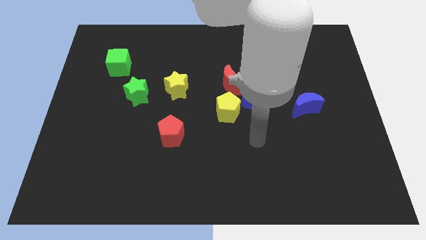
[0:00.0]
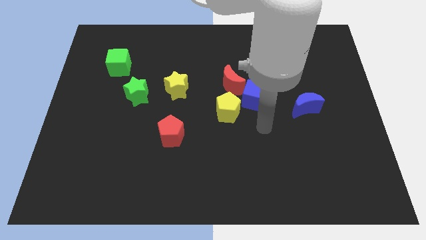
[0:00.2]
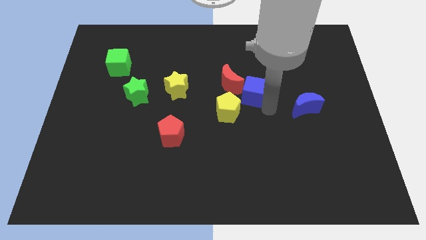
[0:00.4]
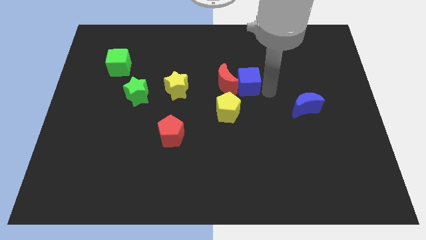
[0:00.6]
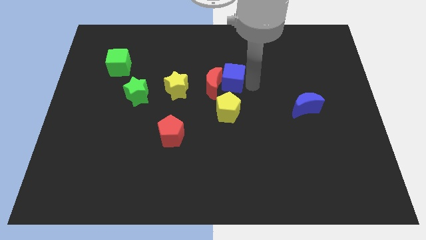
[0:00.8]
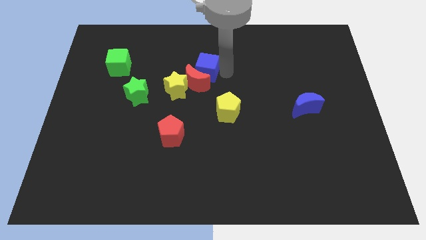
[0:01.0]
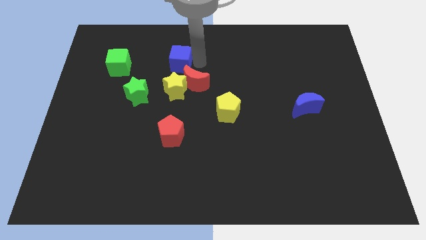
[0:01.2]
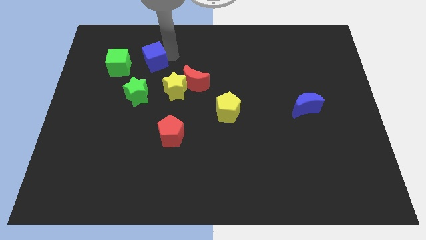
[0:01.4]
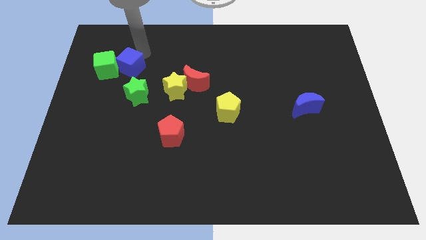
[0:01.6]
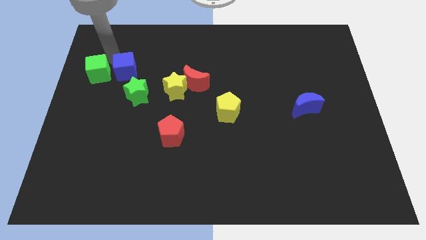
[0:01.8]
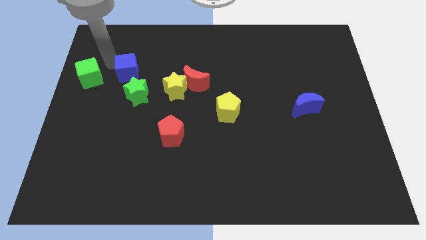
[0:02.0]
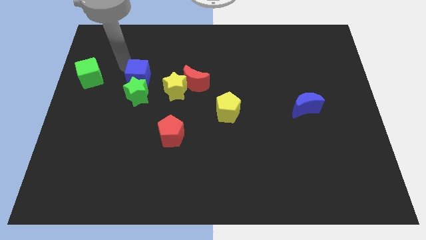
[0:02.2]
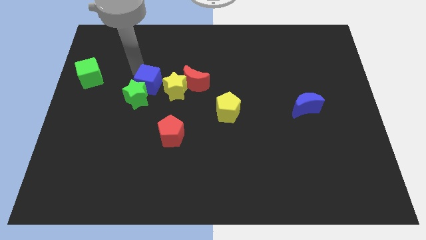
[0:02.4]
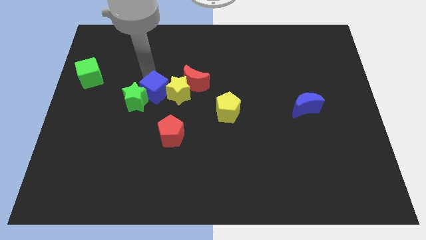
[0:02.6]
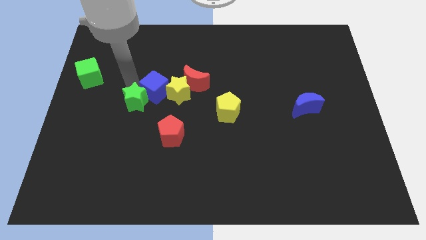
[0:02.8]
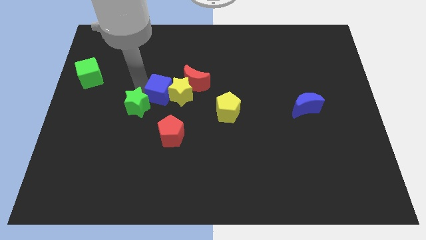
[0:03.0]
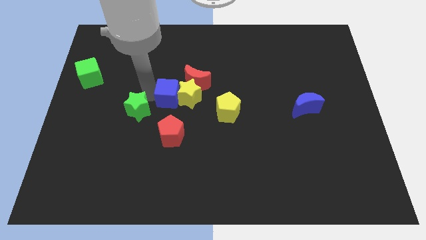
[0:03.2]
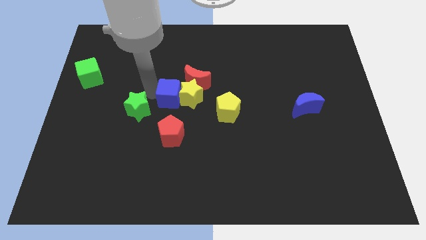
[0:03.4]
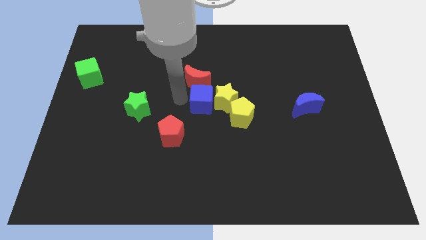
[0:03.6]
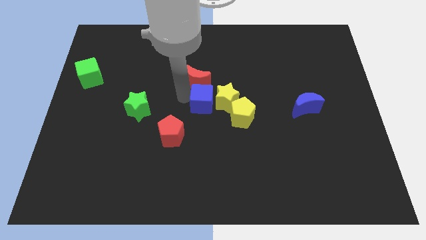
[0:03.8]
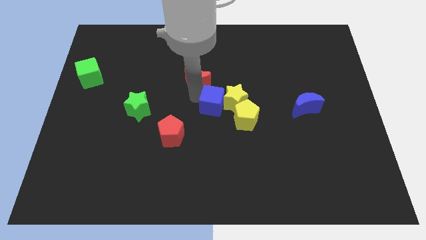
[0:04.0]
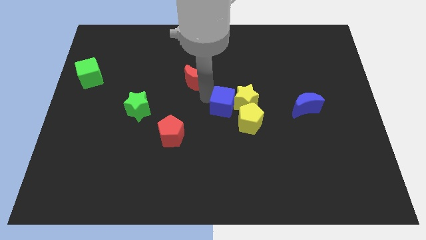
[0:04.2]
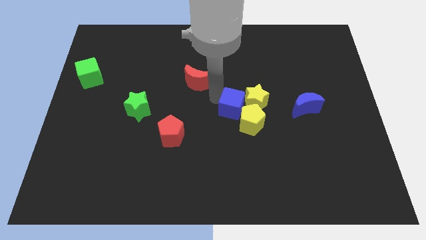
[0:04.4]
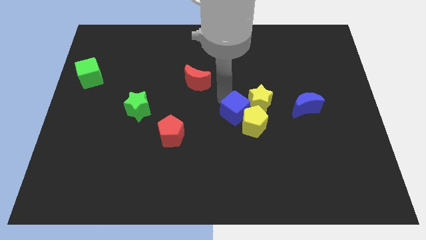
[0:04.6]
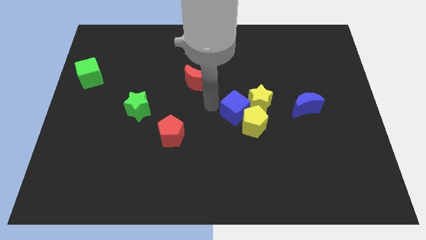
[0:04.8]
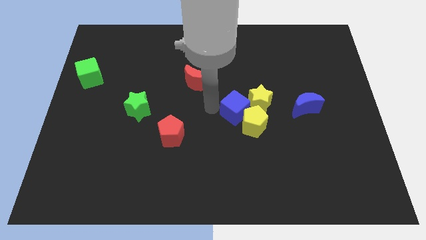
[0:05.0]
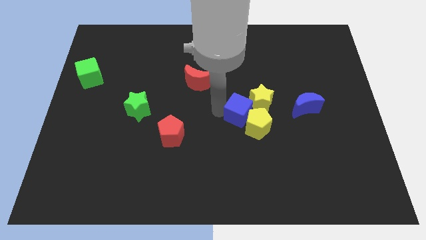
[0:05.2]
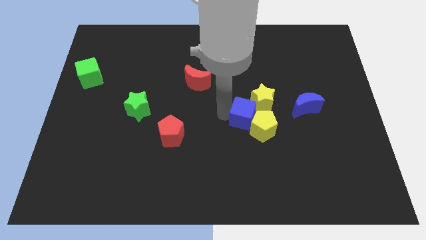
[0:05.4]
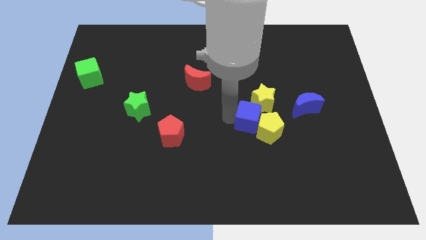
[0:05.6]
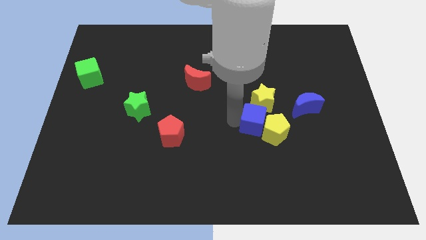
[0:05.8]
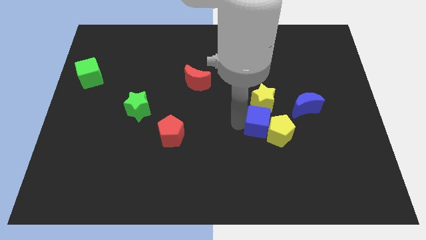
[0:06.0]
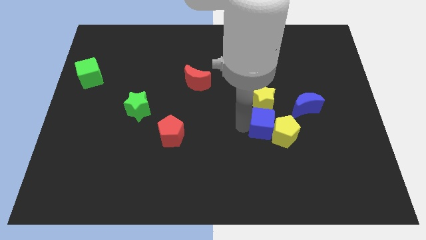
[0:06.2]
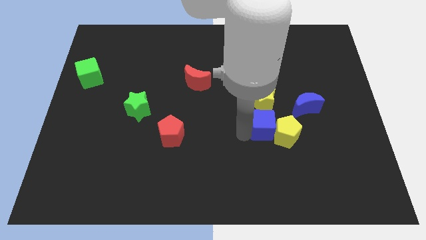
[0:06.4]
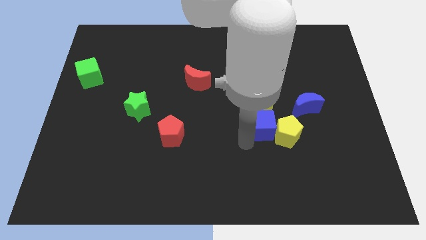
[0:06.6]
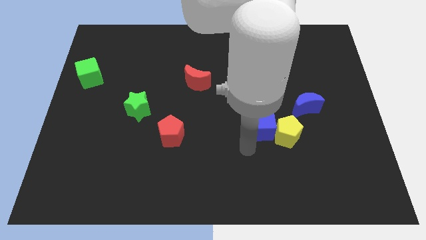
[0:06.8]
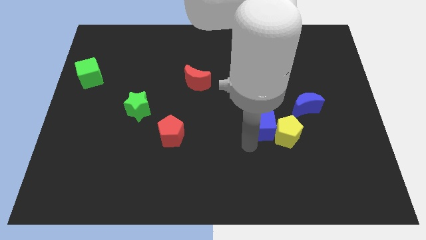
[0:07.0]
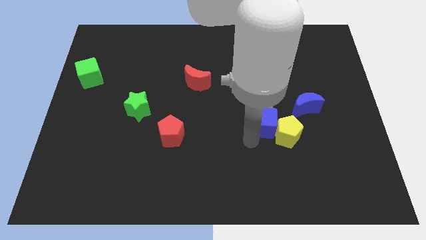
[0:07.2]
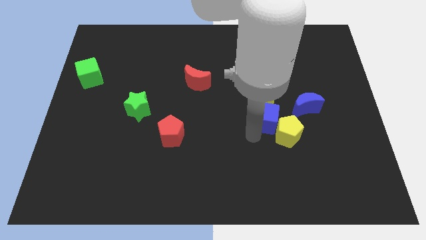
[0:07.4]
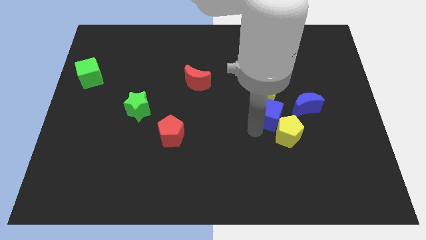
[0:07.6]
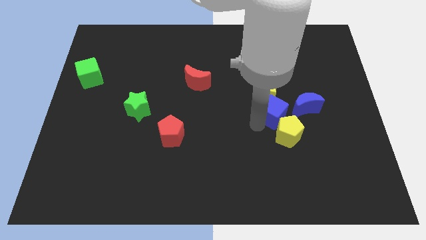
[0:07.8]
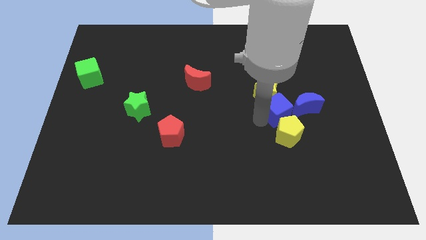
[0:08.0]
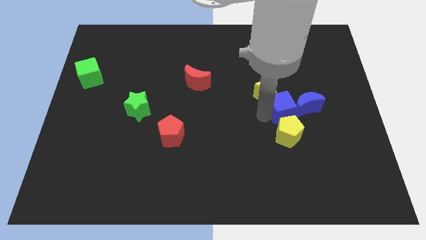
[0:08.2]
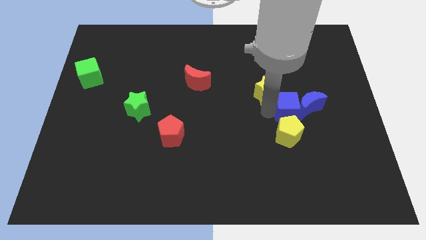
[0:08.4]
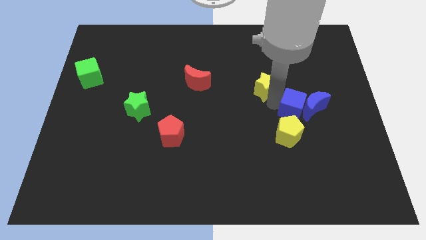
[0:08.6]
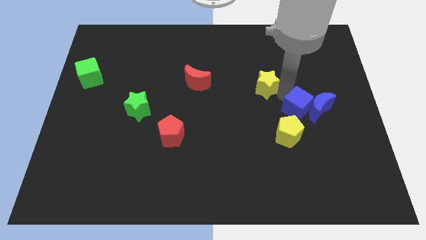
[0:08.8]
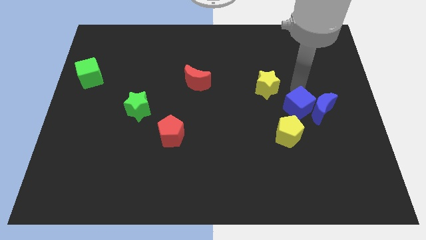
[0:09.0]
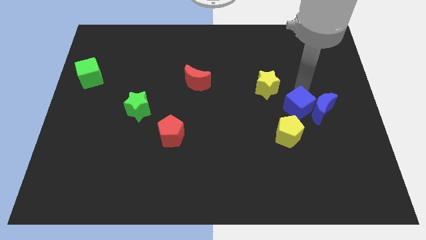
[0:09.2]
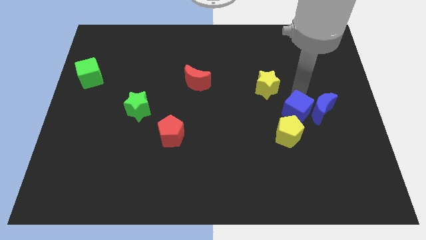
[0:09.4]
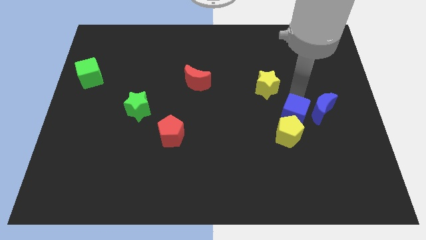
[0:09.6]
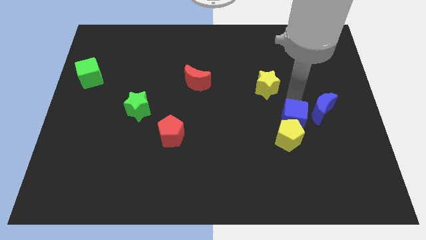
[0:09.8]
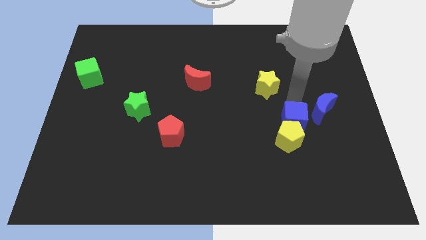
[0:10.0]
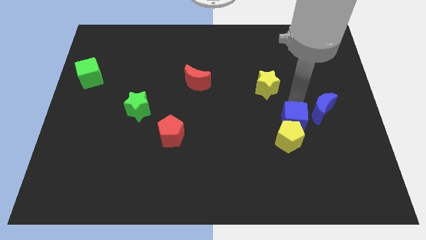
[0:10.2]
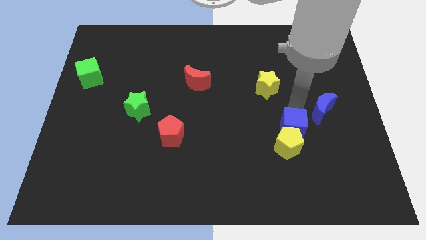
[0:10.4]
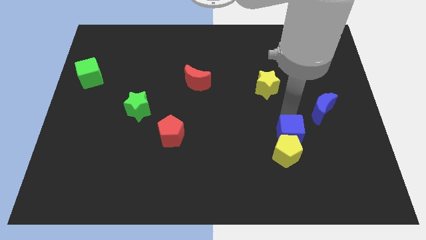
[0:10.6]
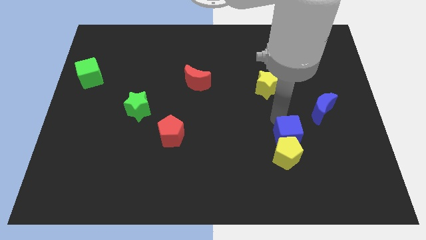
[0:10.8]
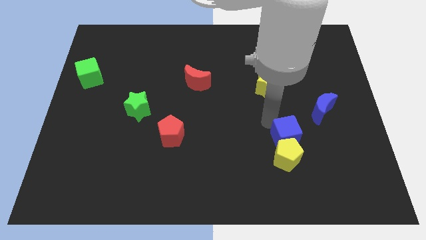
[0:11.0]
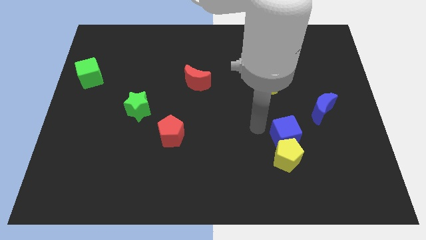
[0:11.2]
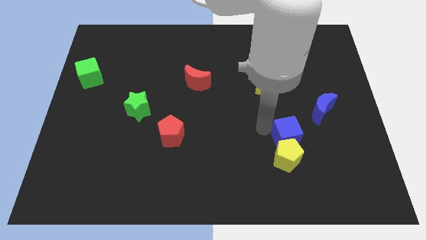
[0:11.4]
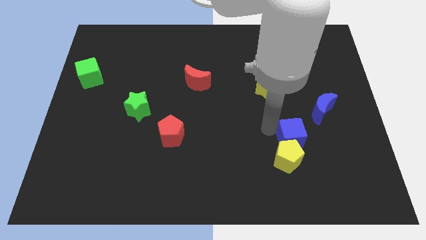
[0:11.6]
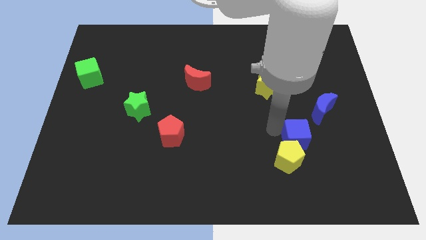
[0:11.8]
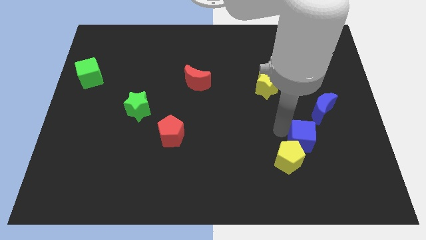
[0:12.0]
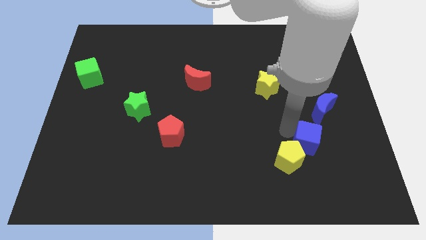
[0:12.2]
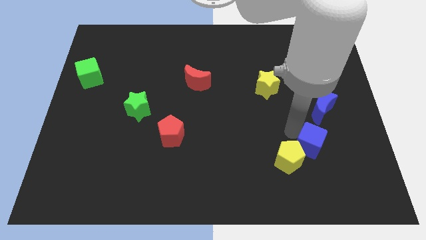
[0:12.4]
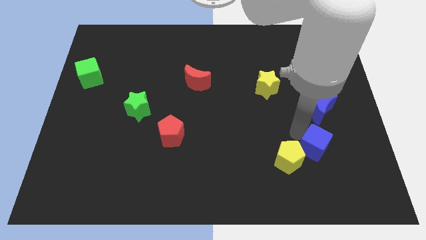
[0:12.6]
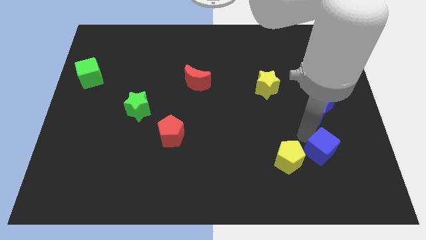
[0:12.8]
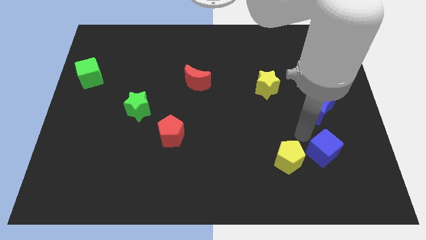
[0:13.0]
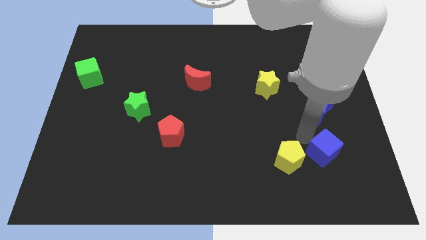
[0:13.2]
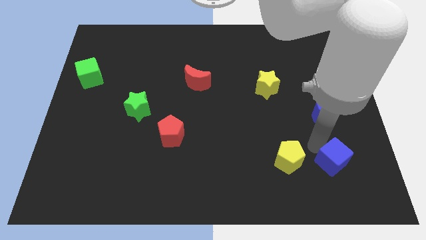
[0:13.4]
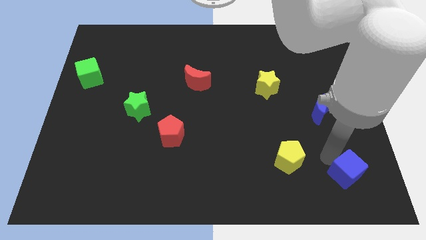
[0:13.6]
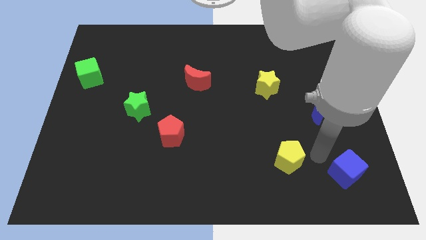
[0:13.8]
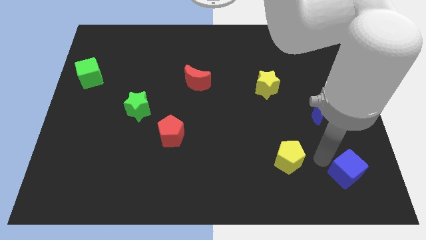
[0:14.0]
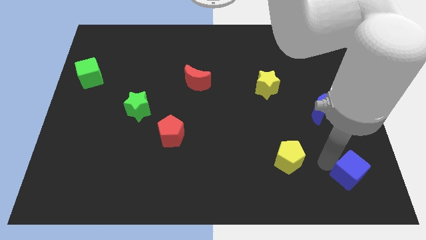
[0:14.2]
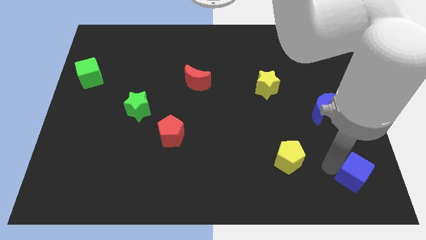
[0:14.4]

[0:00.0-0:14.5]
slide the blue cube to the bottom right of the board
